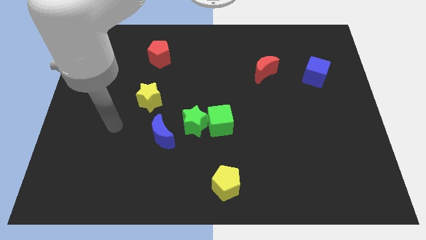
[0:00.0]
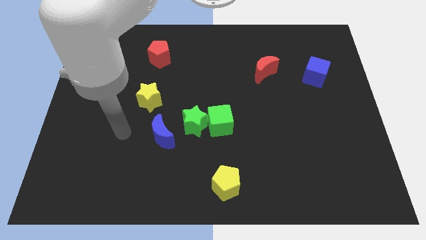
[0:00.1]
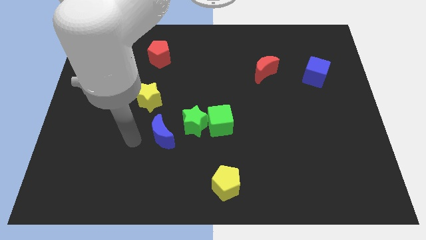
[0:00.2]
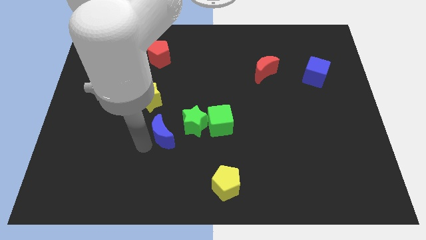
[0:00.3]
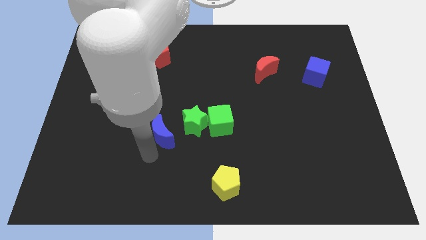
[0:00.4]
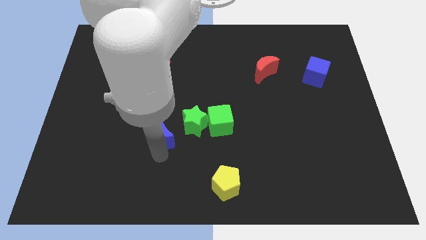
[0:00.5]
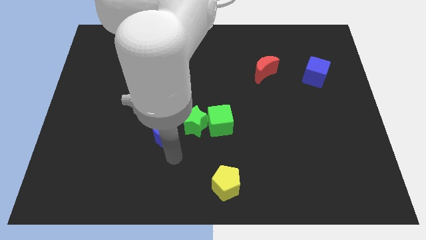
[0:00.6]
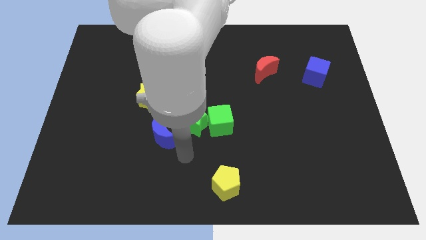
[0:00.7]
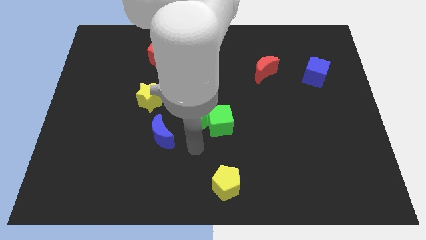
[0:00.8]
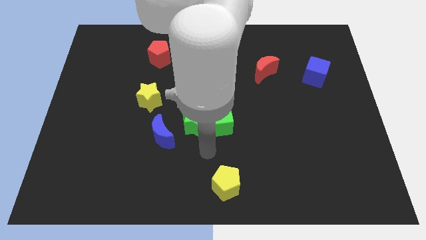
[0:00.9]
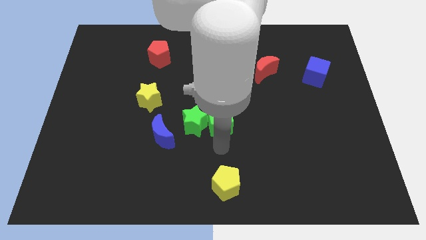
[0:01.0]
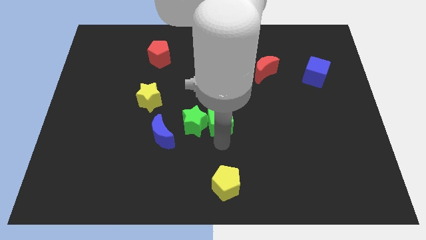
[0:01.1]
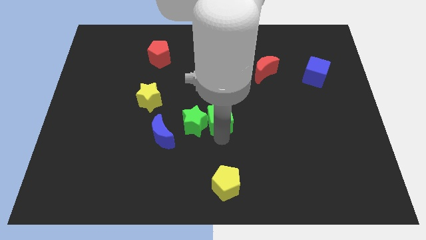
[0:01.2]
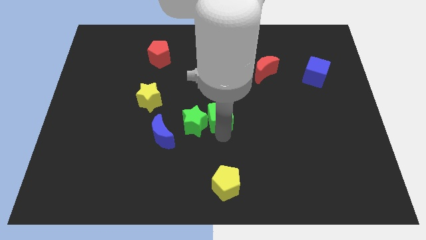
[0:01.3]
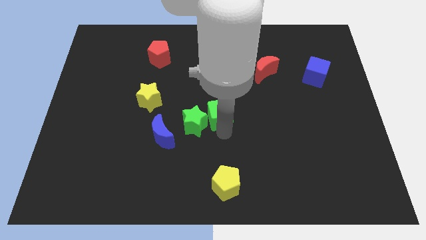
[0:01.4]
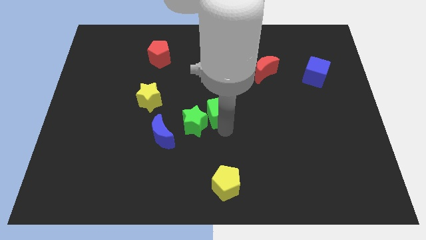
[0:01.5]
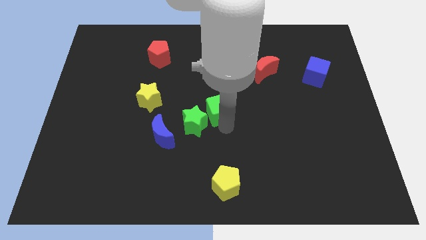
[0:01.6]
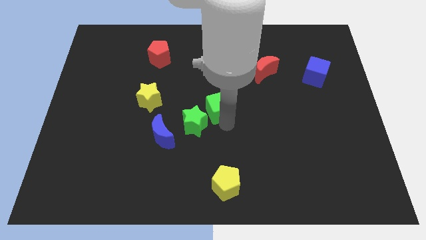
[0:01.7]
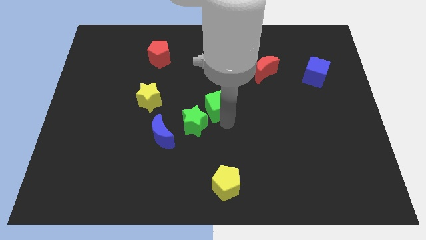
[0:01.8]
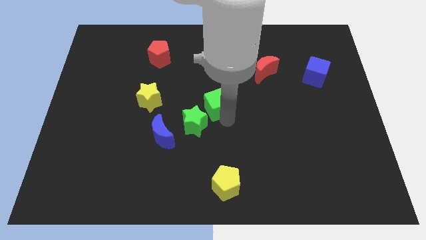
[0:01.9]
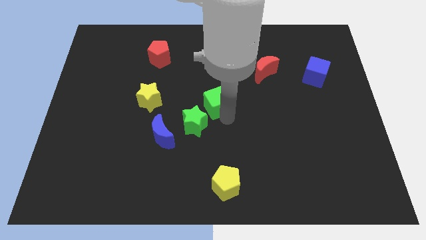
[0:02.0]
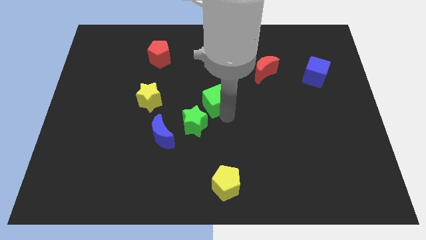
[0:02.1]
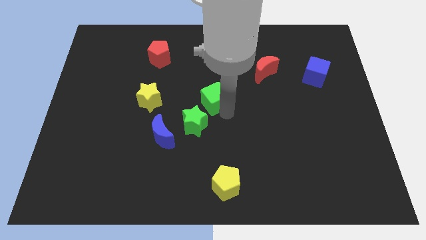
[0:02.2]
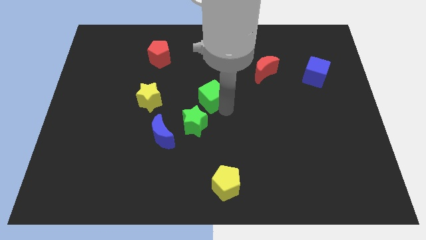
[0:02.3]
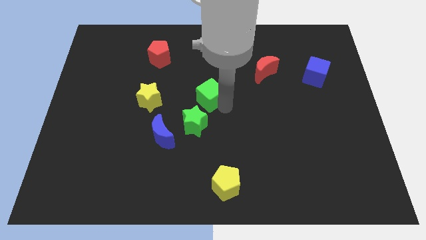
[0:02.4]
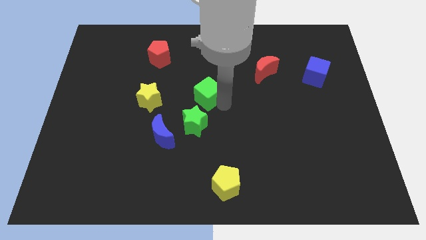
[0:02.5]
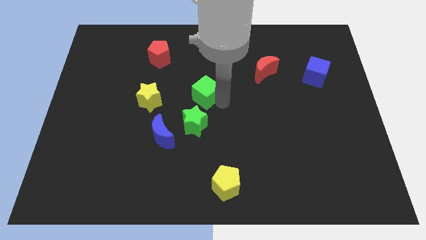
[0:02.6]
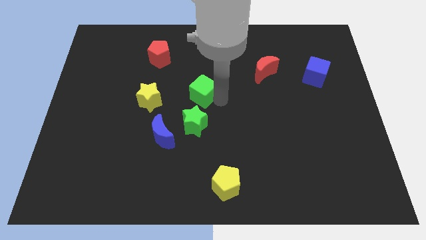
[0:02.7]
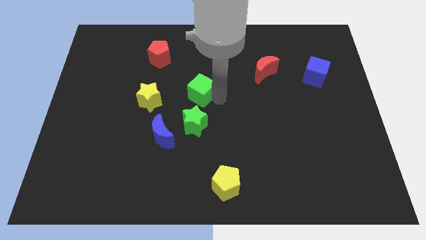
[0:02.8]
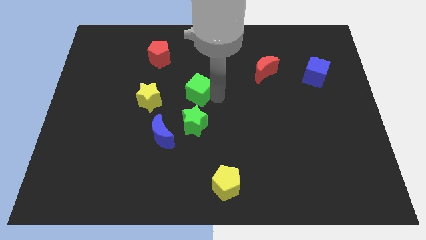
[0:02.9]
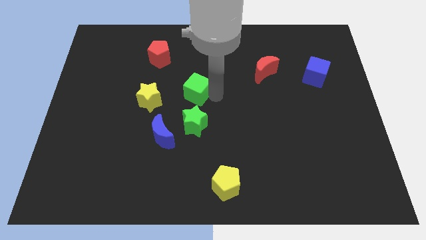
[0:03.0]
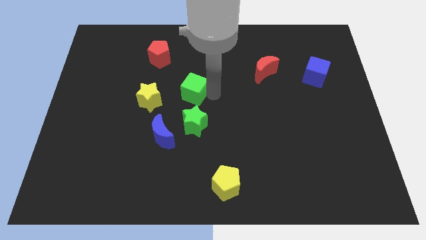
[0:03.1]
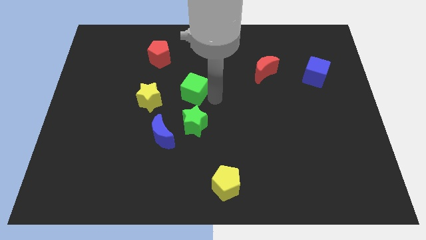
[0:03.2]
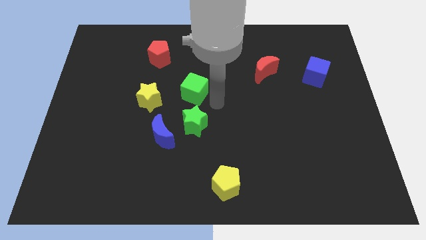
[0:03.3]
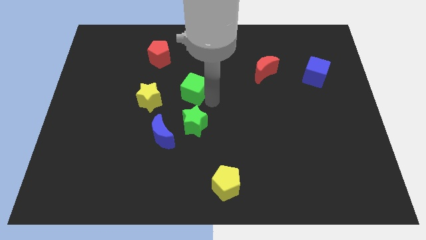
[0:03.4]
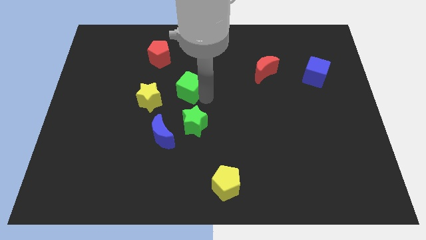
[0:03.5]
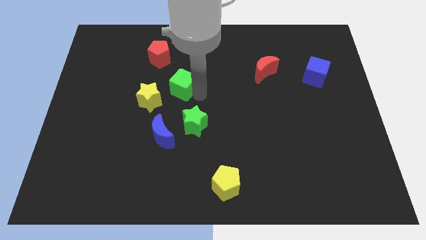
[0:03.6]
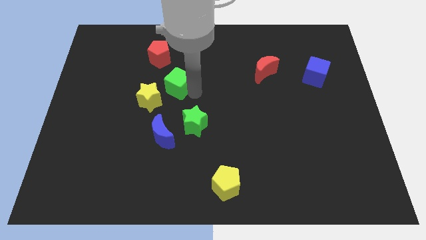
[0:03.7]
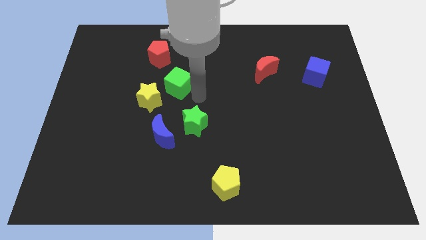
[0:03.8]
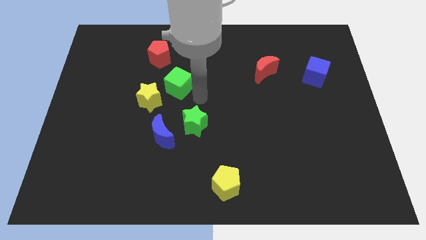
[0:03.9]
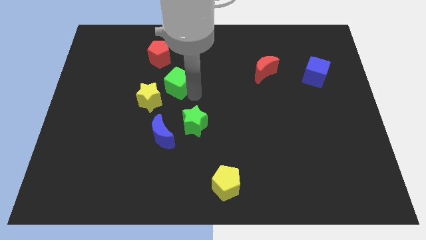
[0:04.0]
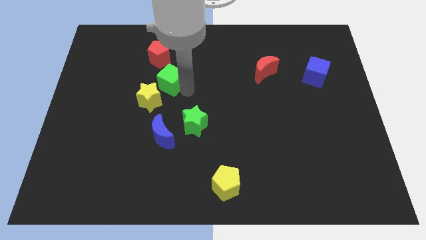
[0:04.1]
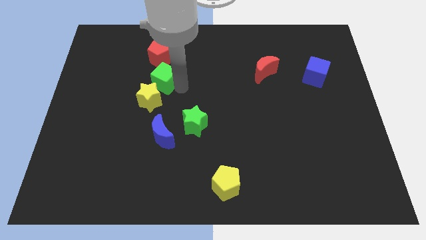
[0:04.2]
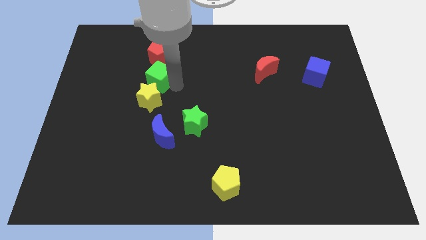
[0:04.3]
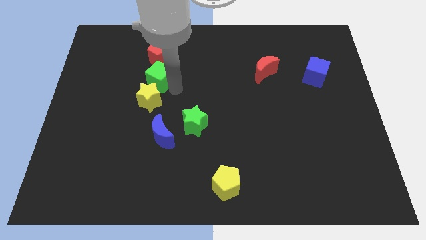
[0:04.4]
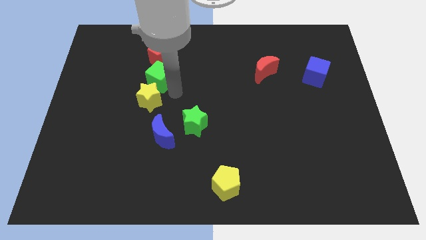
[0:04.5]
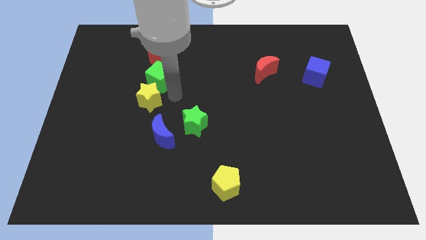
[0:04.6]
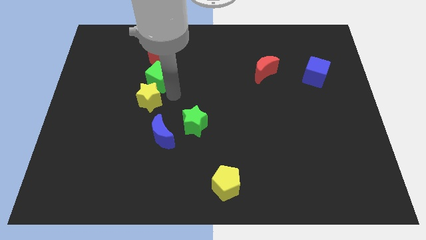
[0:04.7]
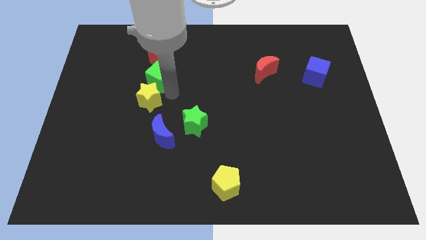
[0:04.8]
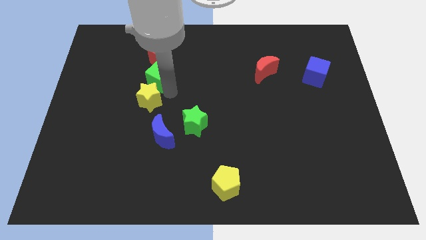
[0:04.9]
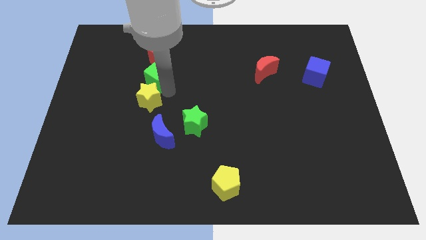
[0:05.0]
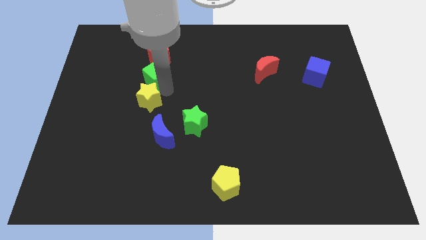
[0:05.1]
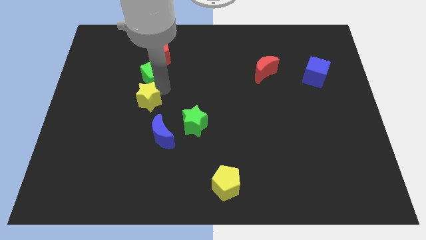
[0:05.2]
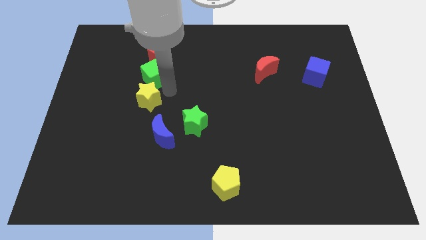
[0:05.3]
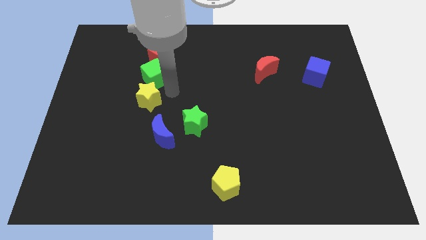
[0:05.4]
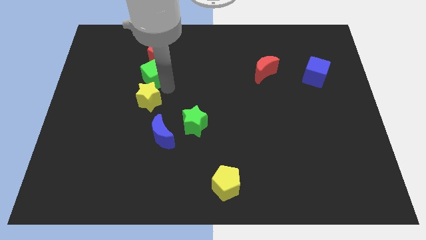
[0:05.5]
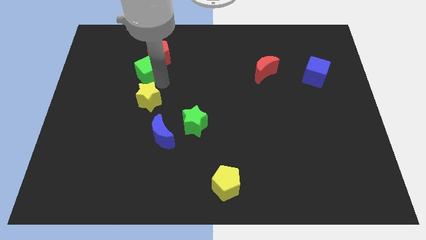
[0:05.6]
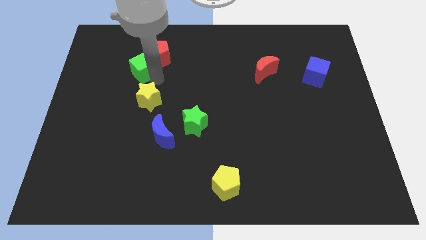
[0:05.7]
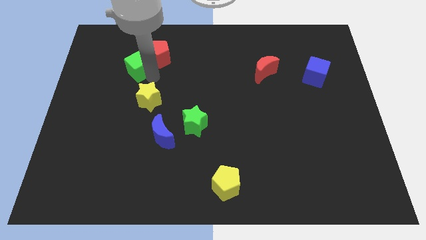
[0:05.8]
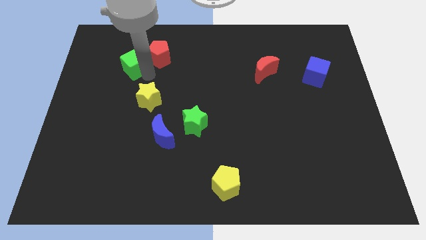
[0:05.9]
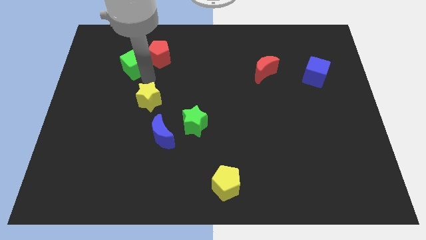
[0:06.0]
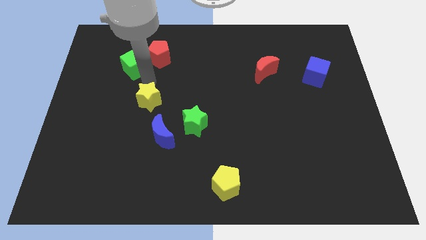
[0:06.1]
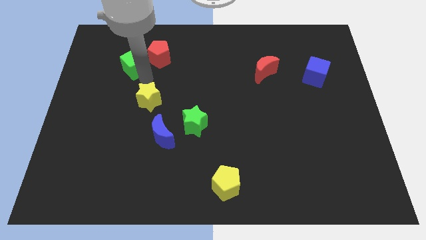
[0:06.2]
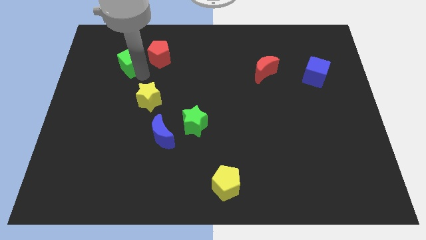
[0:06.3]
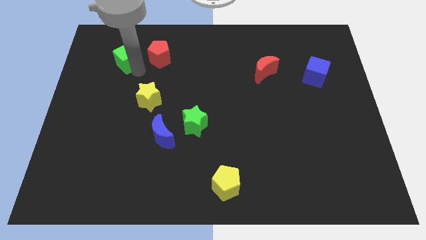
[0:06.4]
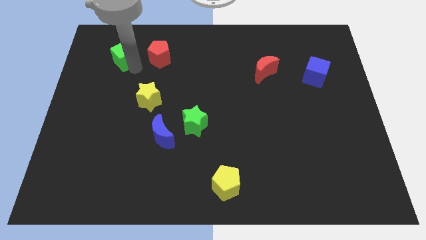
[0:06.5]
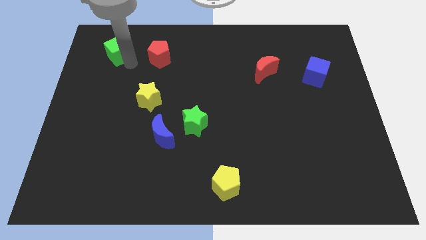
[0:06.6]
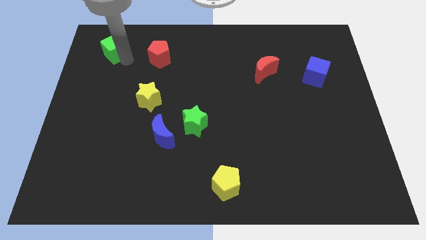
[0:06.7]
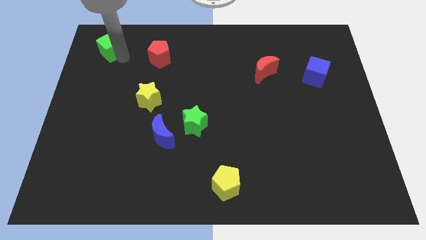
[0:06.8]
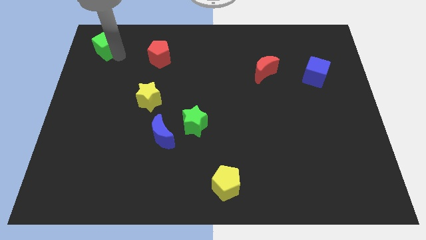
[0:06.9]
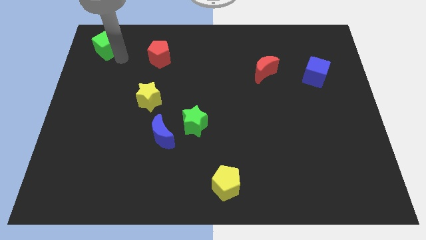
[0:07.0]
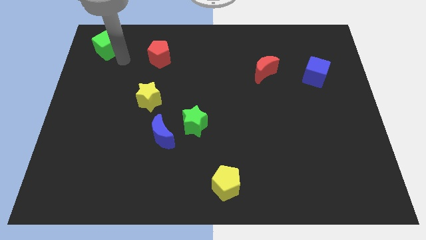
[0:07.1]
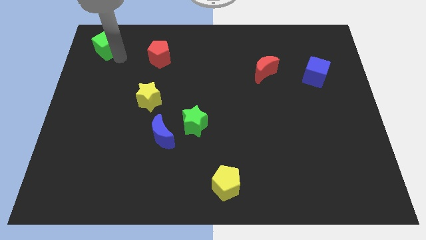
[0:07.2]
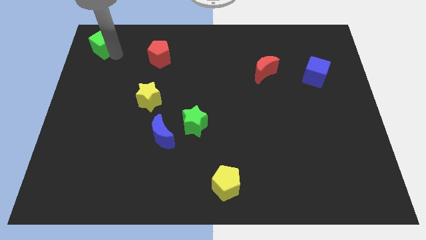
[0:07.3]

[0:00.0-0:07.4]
move the green cube to the top left
